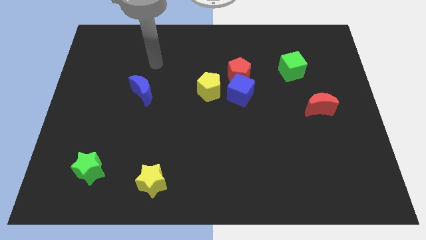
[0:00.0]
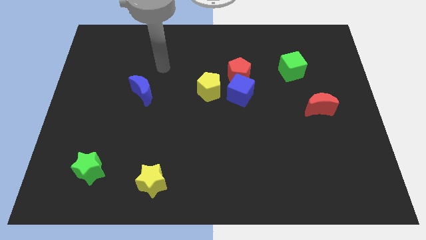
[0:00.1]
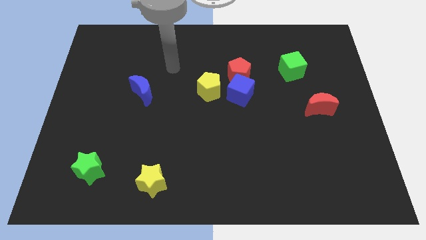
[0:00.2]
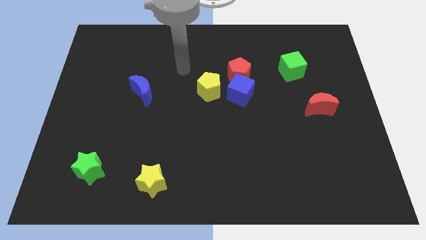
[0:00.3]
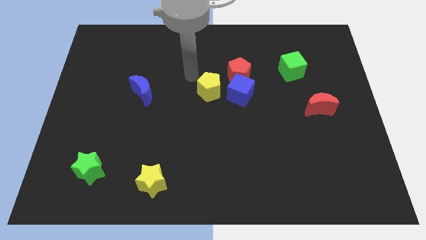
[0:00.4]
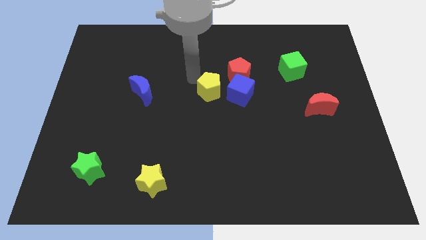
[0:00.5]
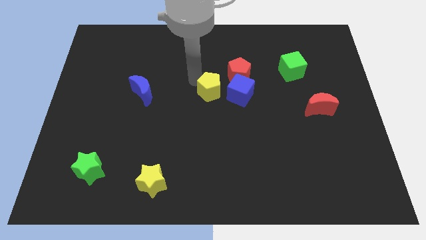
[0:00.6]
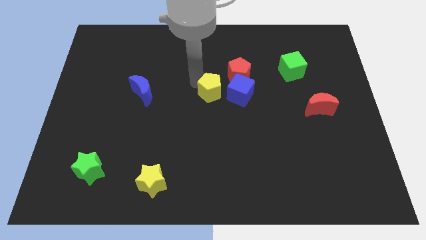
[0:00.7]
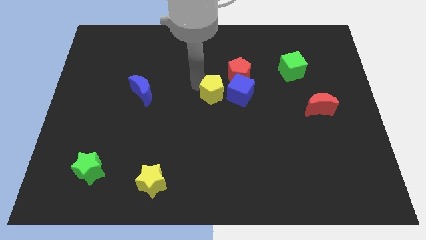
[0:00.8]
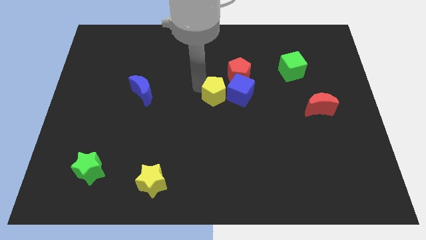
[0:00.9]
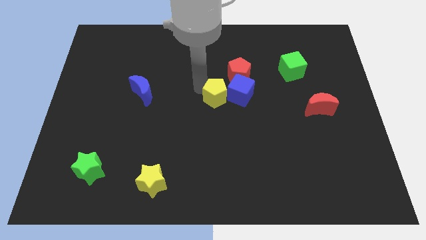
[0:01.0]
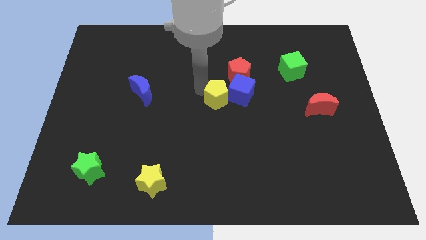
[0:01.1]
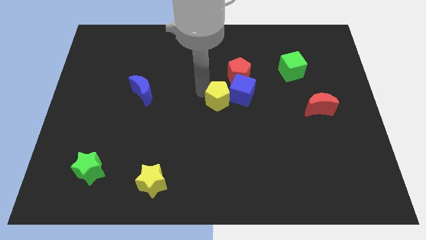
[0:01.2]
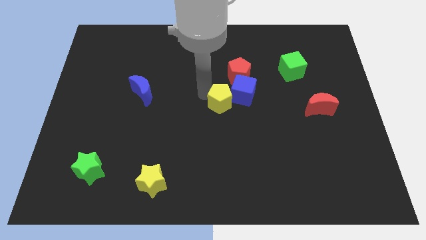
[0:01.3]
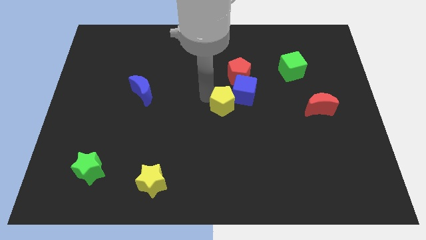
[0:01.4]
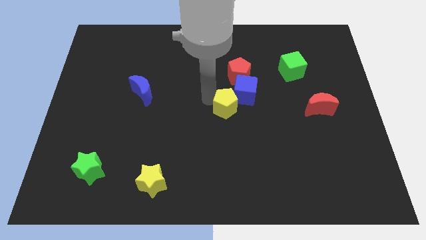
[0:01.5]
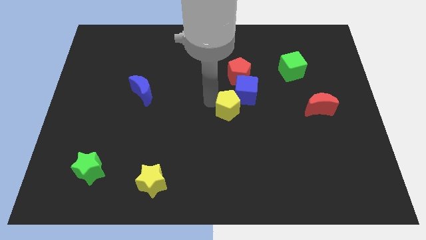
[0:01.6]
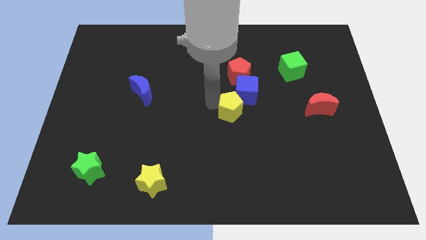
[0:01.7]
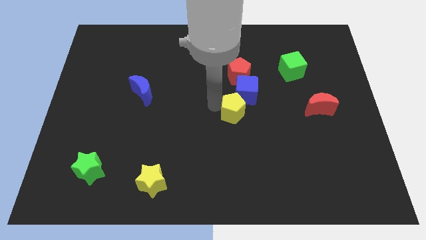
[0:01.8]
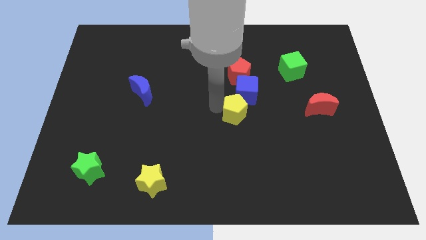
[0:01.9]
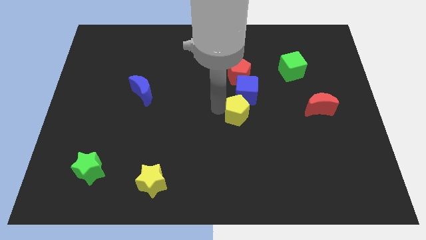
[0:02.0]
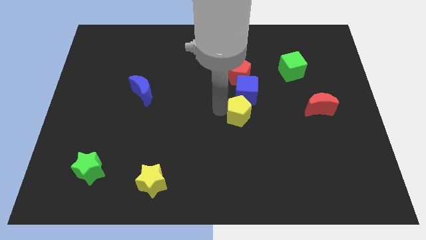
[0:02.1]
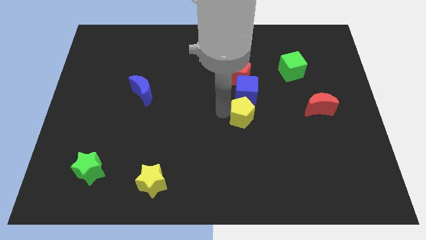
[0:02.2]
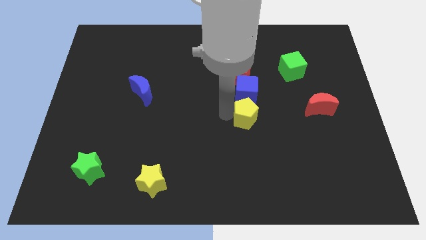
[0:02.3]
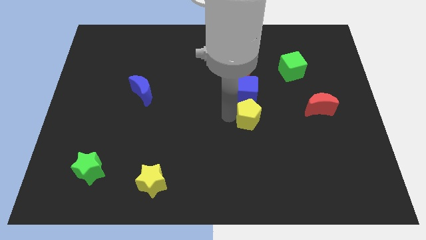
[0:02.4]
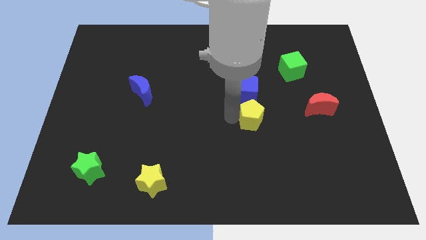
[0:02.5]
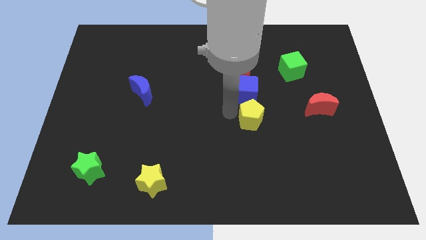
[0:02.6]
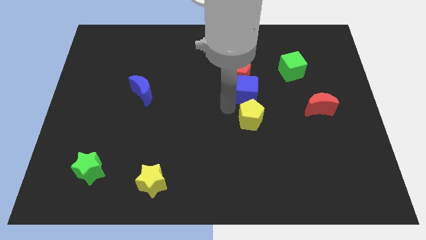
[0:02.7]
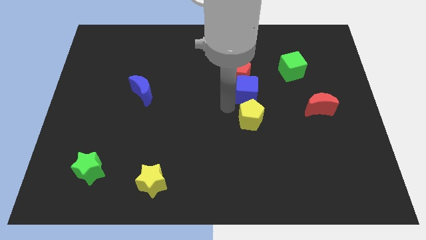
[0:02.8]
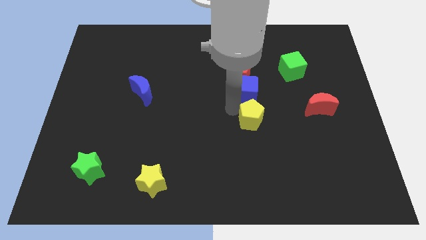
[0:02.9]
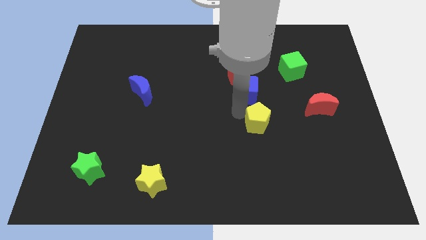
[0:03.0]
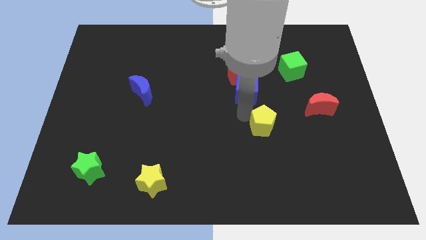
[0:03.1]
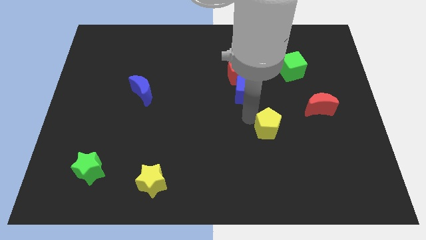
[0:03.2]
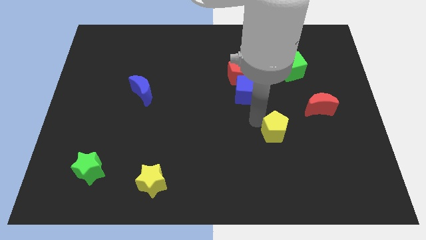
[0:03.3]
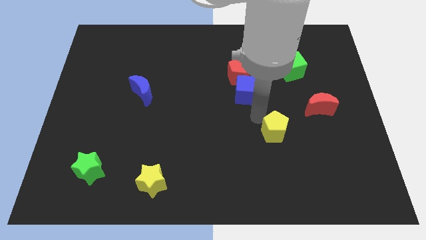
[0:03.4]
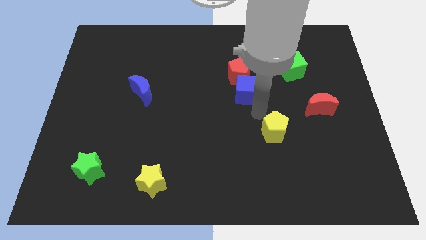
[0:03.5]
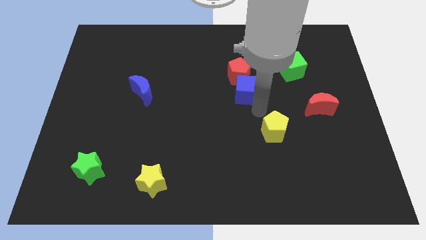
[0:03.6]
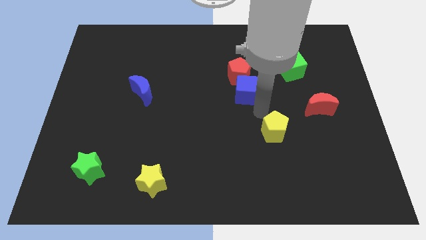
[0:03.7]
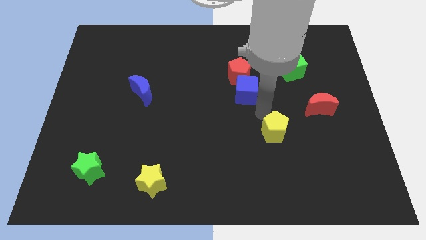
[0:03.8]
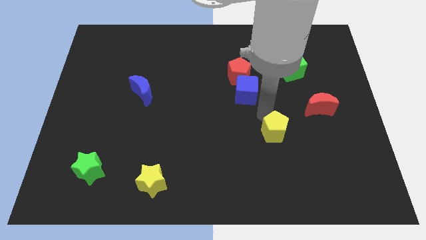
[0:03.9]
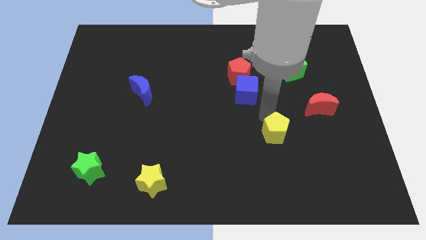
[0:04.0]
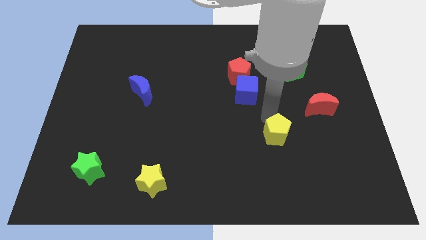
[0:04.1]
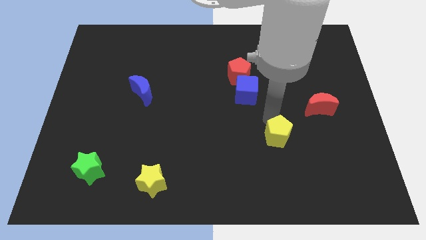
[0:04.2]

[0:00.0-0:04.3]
slide the yellow pentagon downwards and right diagonally

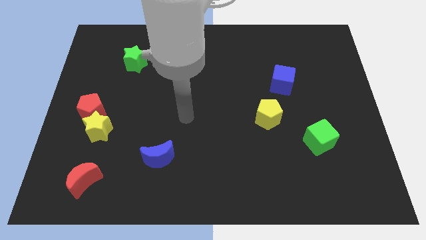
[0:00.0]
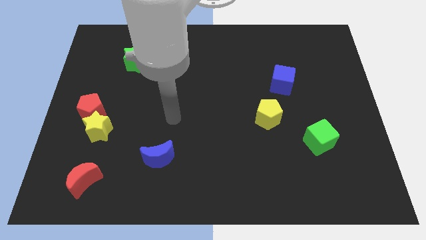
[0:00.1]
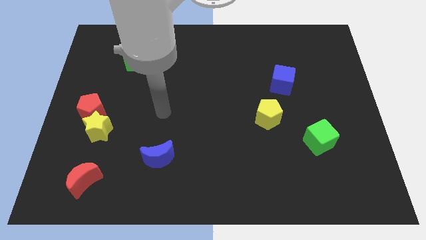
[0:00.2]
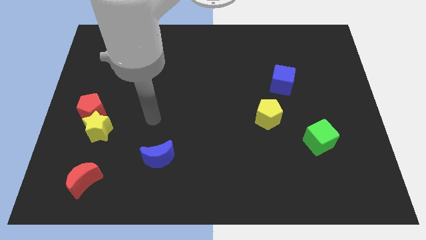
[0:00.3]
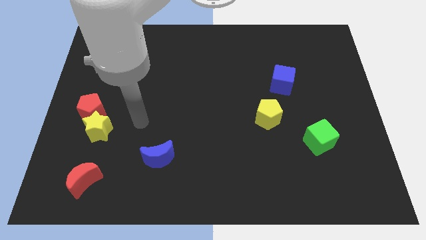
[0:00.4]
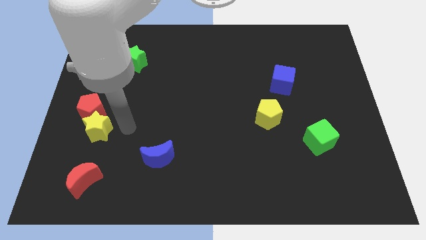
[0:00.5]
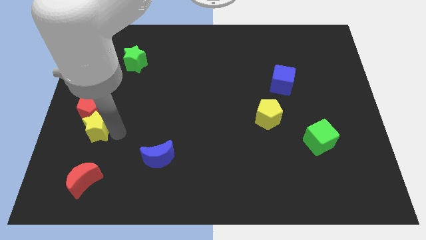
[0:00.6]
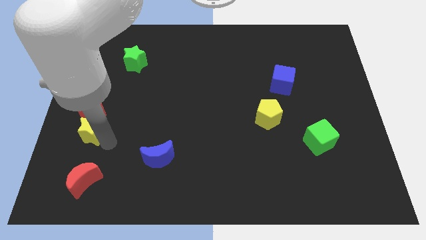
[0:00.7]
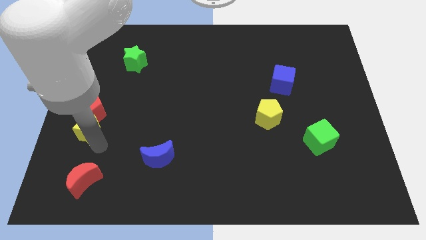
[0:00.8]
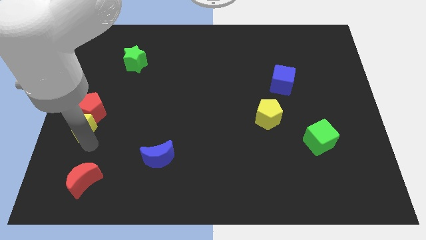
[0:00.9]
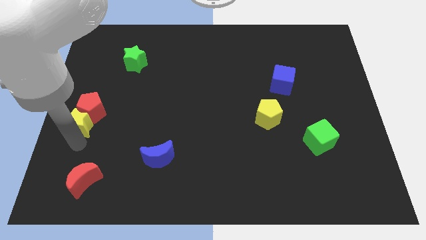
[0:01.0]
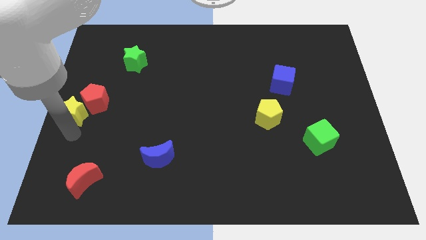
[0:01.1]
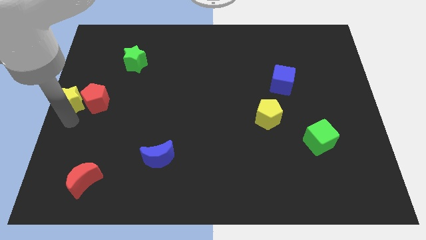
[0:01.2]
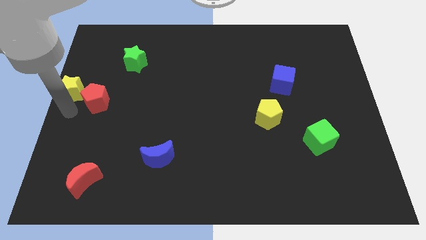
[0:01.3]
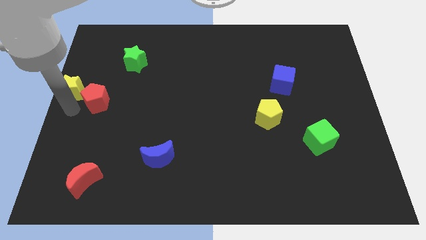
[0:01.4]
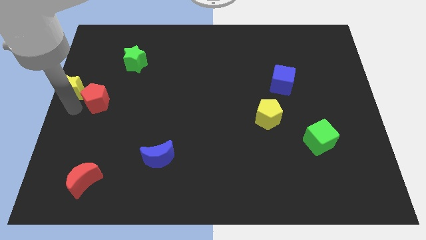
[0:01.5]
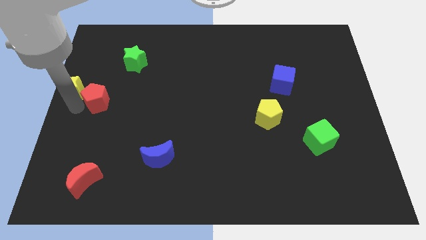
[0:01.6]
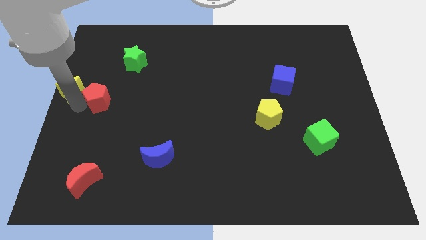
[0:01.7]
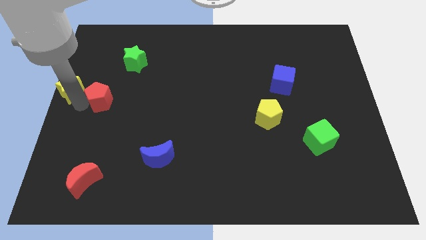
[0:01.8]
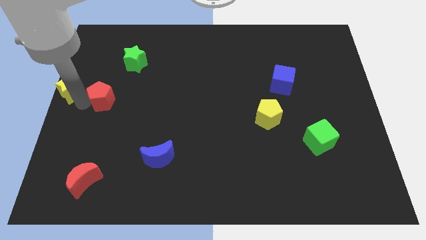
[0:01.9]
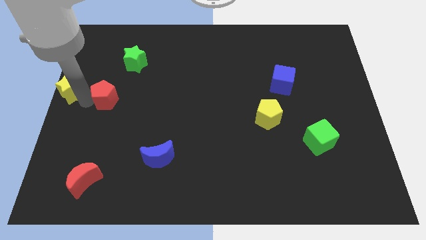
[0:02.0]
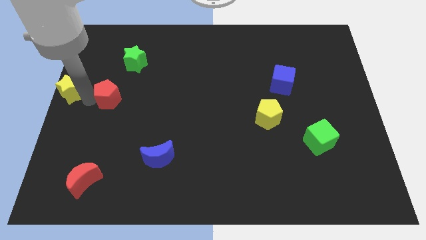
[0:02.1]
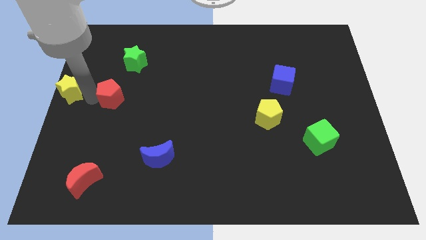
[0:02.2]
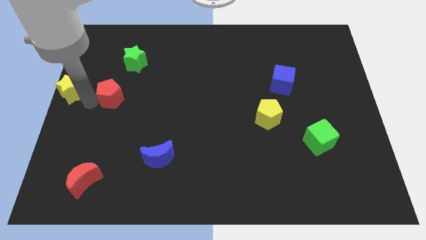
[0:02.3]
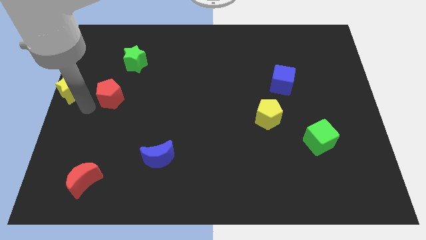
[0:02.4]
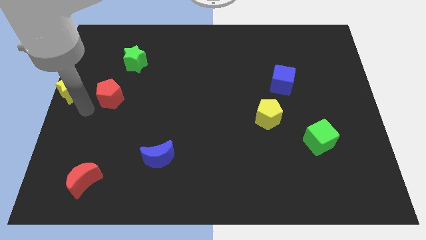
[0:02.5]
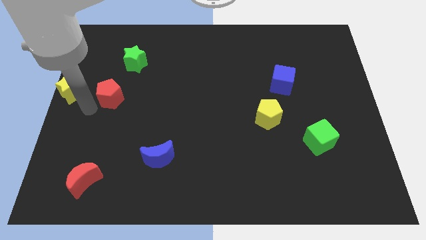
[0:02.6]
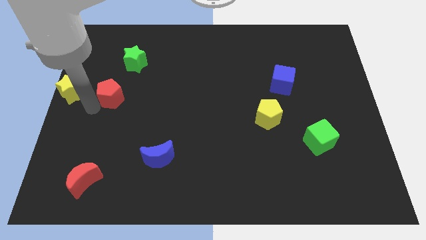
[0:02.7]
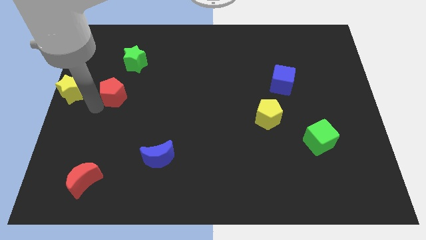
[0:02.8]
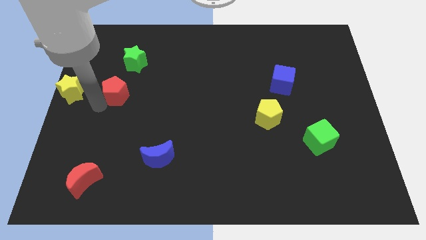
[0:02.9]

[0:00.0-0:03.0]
slightly push the red pentagon up and to the right diagonally

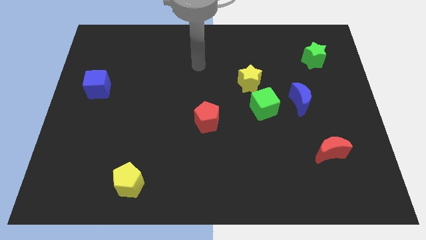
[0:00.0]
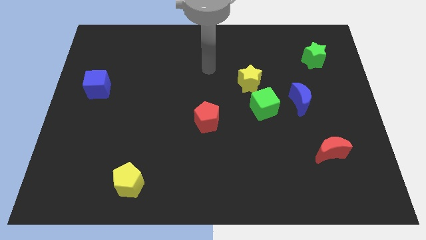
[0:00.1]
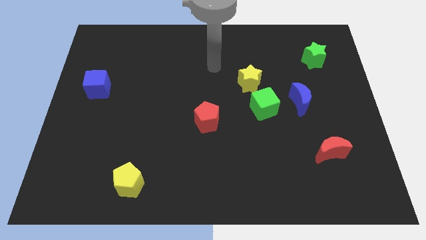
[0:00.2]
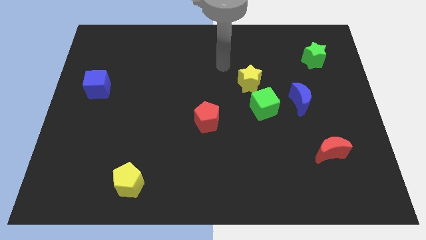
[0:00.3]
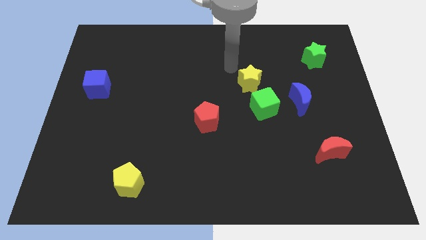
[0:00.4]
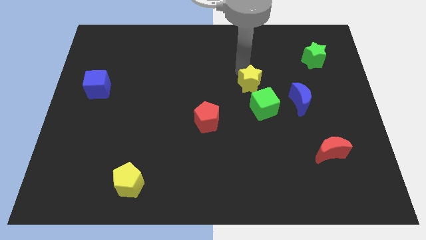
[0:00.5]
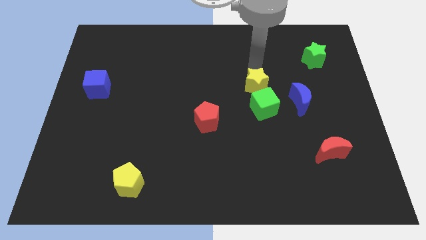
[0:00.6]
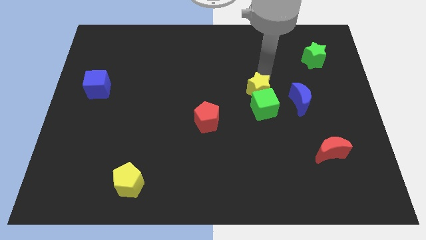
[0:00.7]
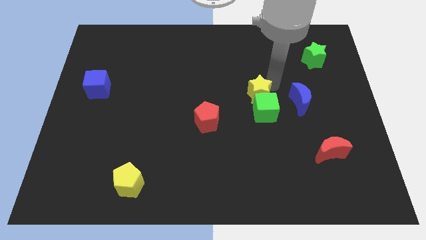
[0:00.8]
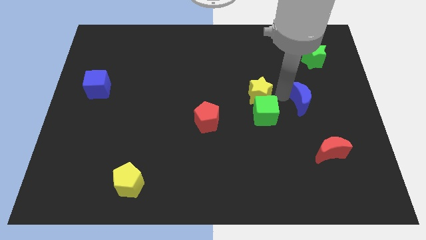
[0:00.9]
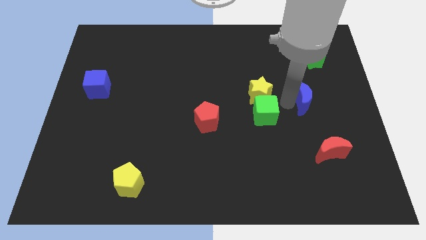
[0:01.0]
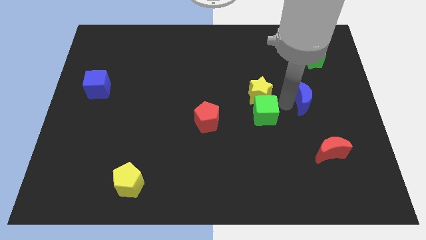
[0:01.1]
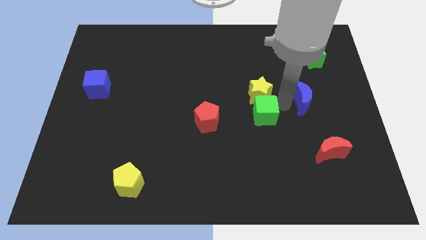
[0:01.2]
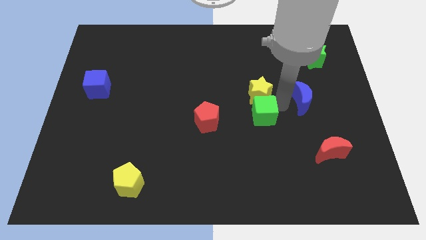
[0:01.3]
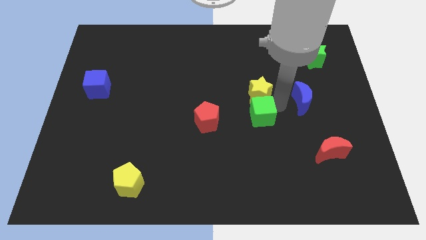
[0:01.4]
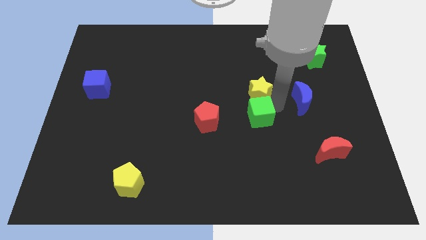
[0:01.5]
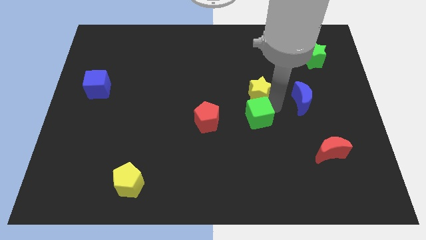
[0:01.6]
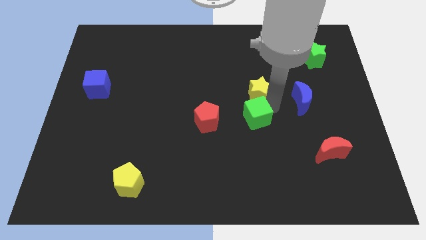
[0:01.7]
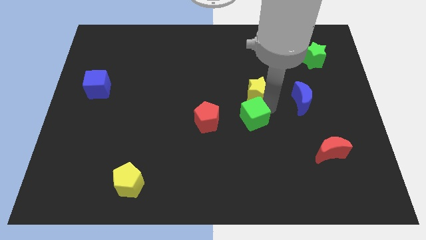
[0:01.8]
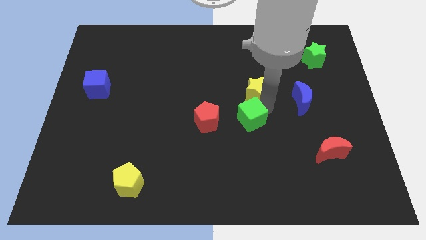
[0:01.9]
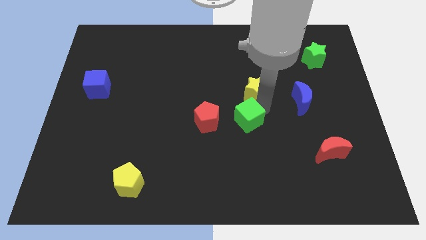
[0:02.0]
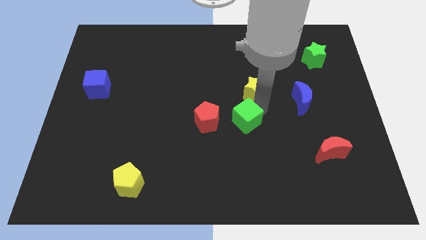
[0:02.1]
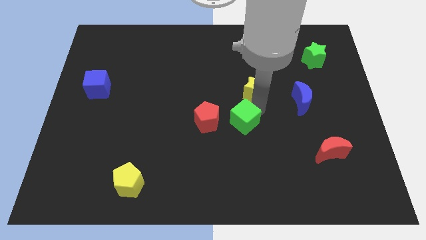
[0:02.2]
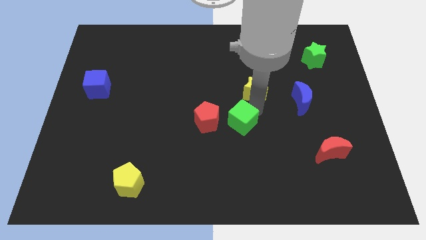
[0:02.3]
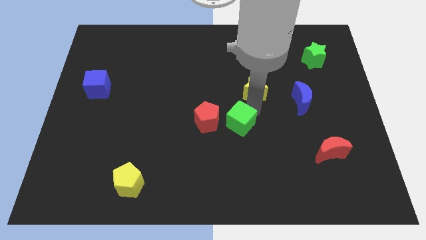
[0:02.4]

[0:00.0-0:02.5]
slide the green cube diagonally down and left a bit
